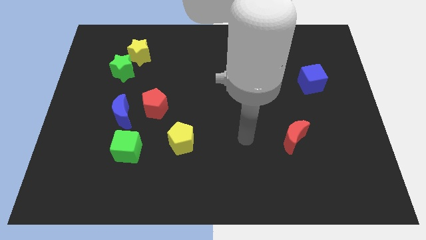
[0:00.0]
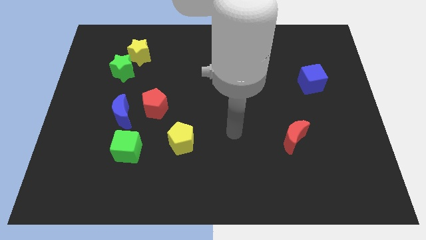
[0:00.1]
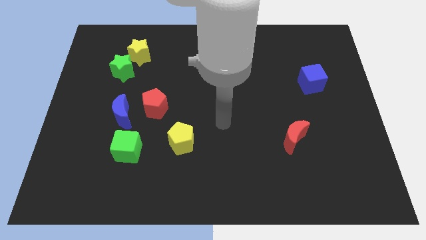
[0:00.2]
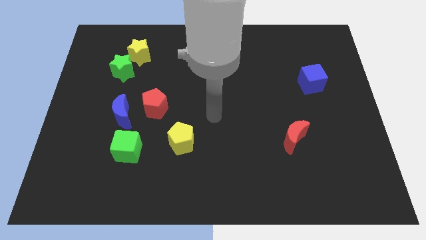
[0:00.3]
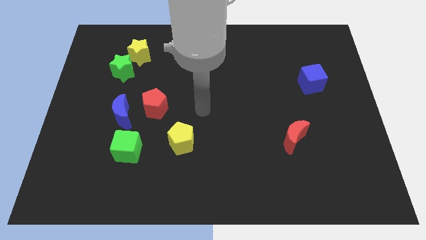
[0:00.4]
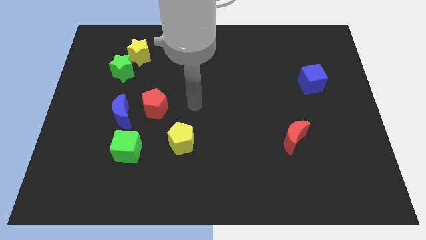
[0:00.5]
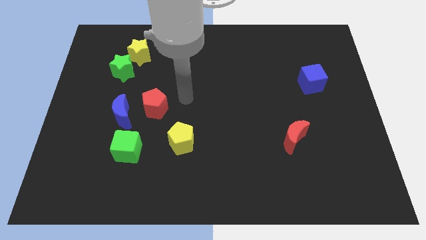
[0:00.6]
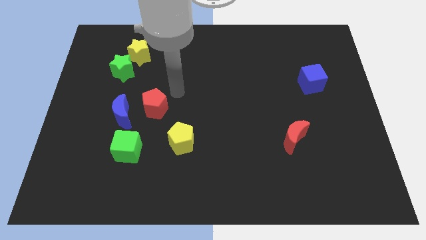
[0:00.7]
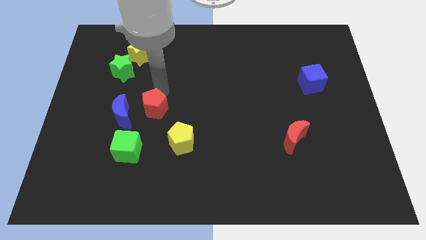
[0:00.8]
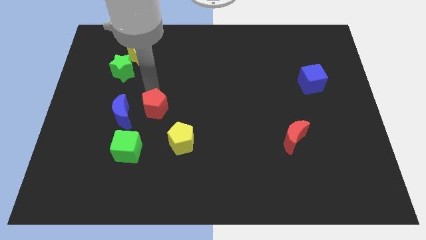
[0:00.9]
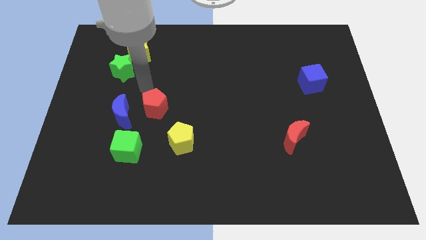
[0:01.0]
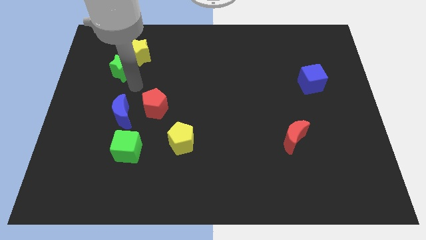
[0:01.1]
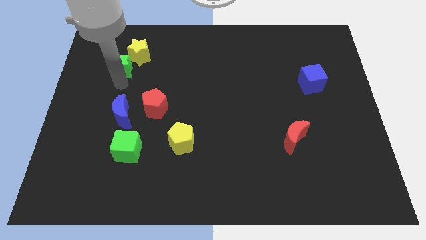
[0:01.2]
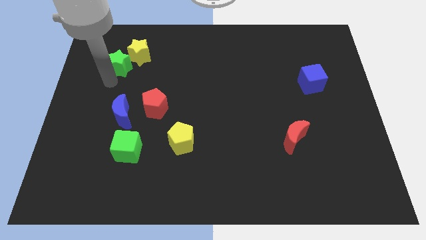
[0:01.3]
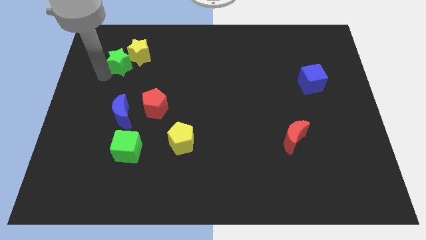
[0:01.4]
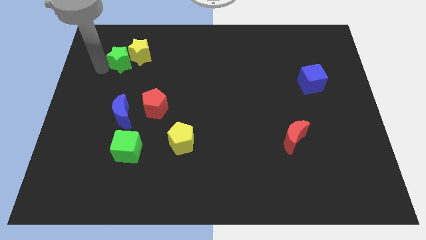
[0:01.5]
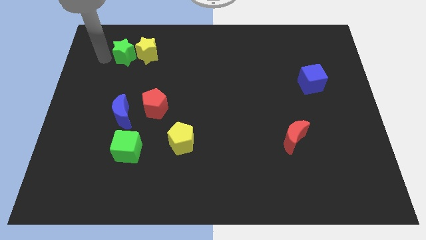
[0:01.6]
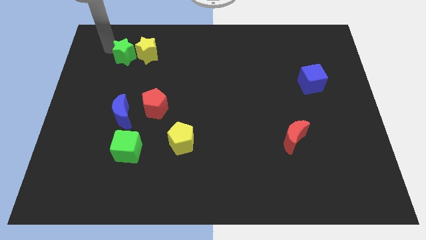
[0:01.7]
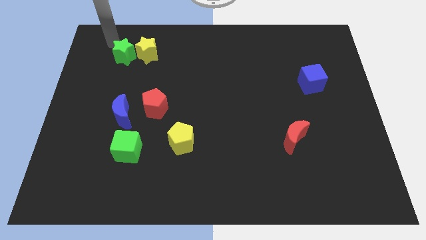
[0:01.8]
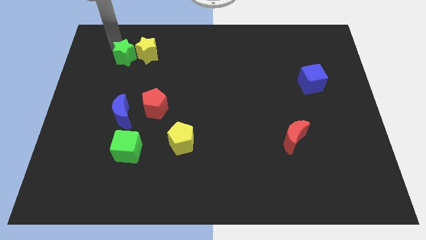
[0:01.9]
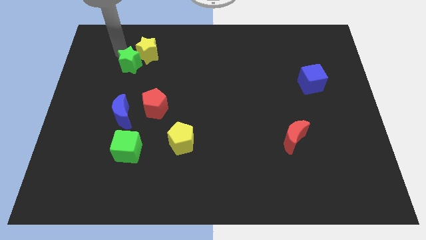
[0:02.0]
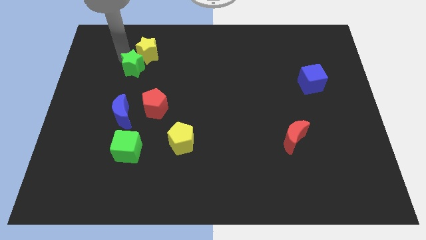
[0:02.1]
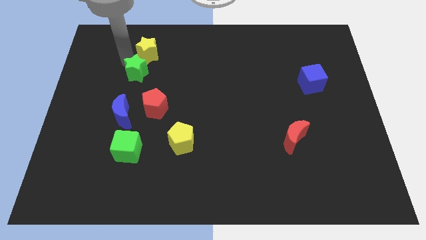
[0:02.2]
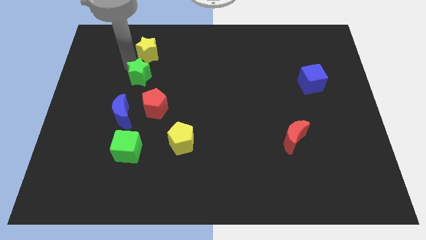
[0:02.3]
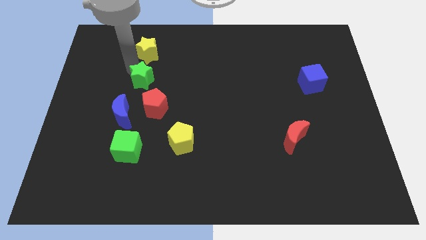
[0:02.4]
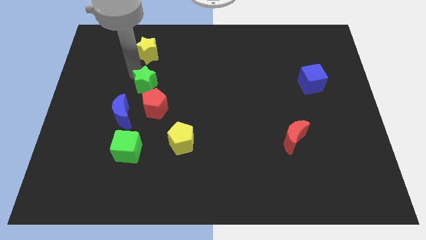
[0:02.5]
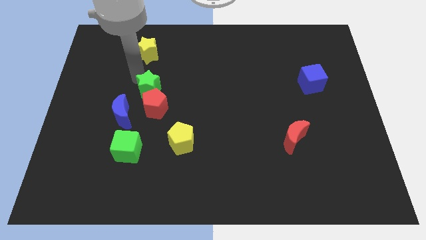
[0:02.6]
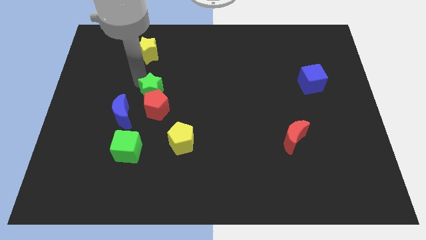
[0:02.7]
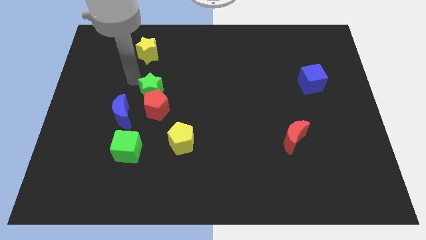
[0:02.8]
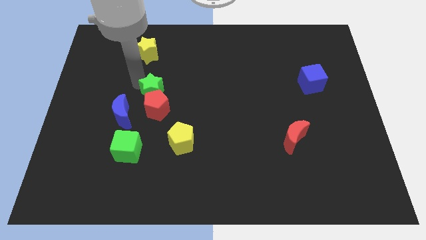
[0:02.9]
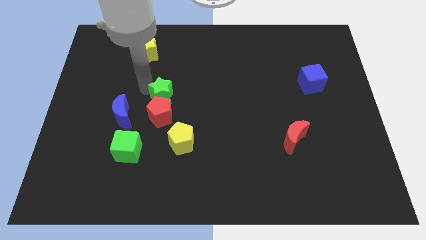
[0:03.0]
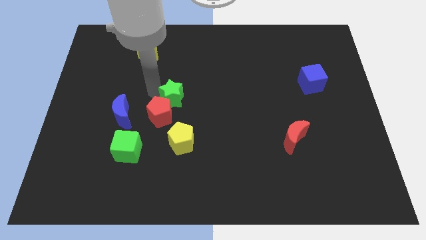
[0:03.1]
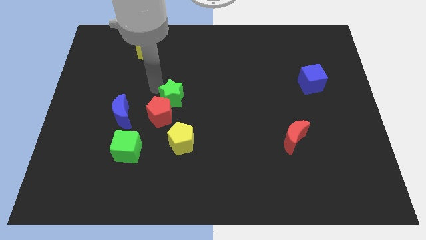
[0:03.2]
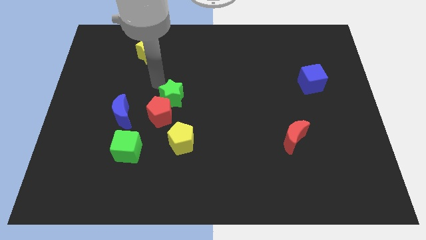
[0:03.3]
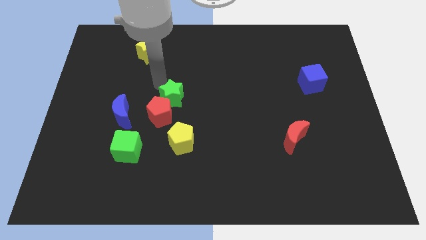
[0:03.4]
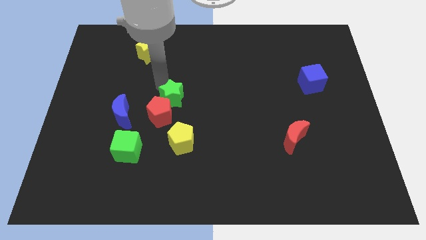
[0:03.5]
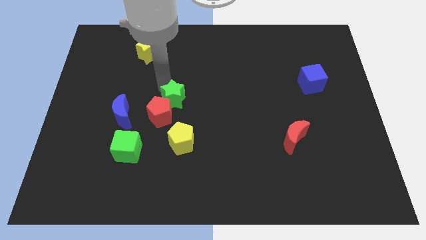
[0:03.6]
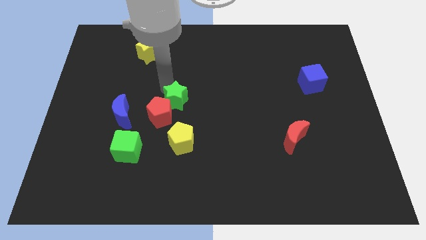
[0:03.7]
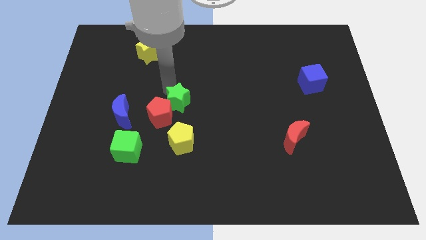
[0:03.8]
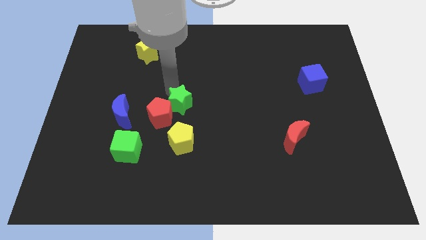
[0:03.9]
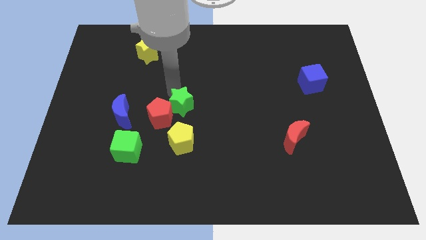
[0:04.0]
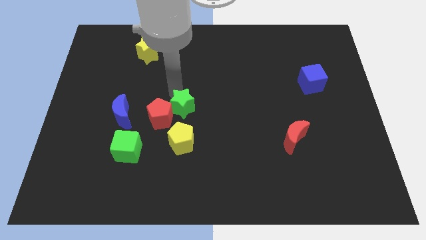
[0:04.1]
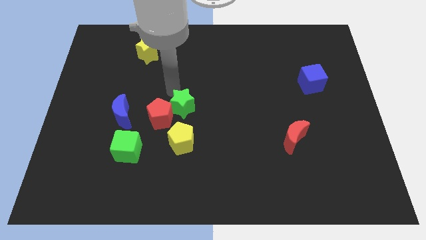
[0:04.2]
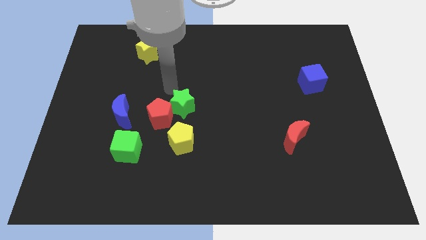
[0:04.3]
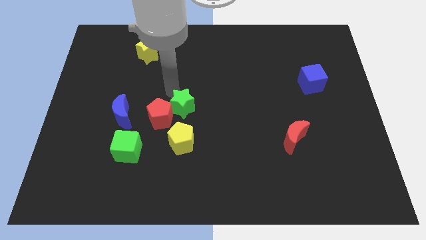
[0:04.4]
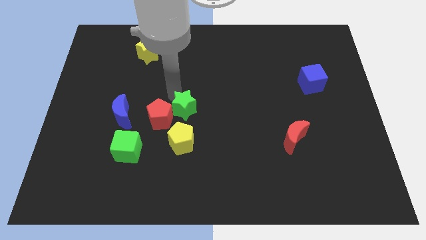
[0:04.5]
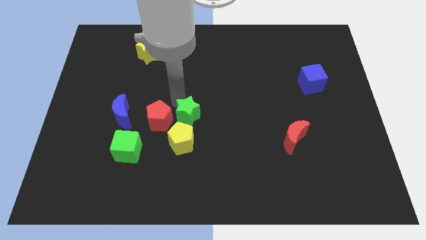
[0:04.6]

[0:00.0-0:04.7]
slide the green star downwards and to the right diagonally

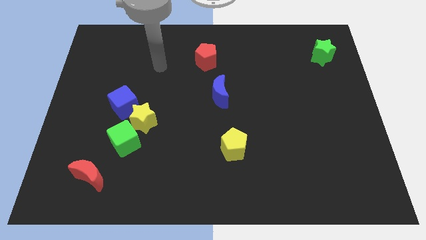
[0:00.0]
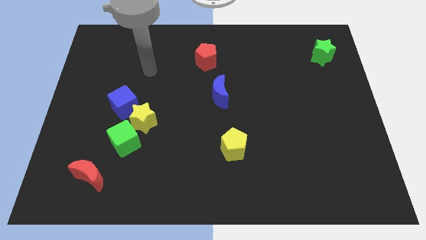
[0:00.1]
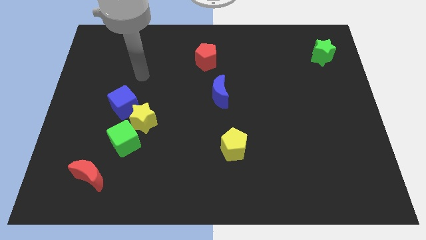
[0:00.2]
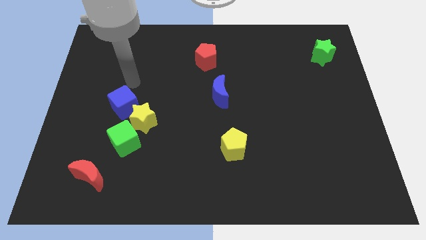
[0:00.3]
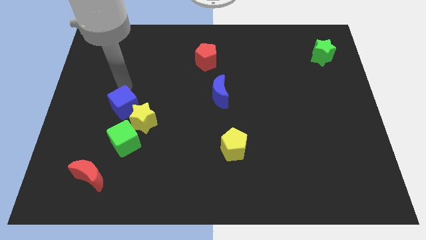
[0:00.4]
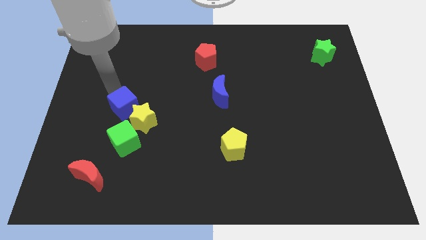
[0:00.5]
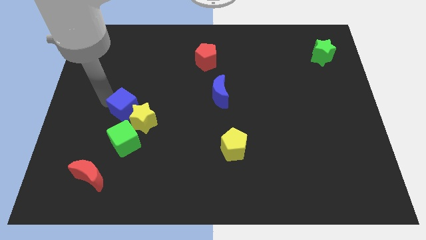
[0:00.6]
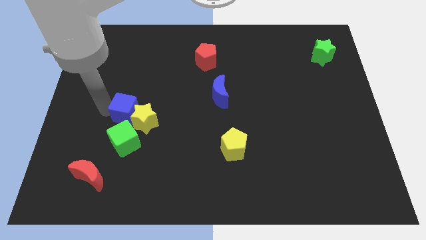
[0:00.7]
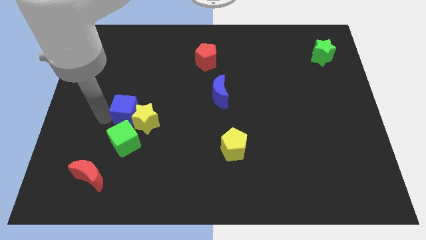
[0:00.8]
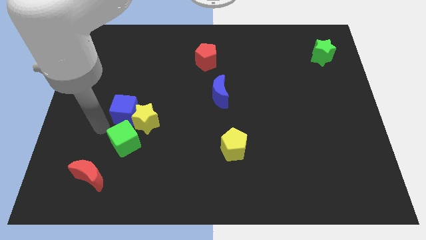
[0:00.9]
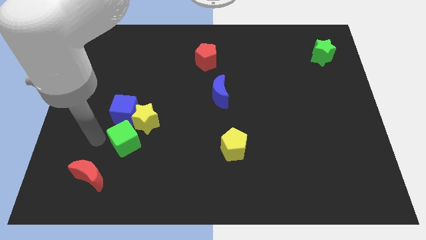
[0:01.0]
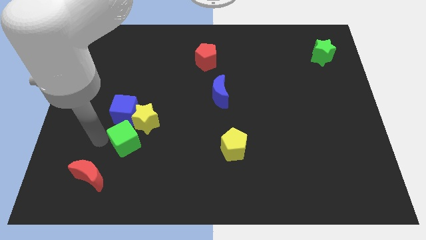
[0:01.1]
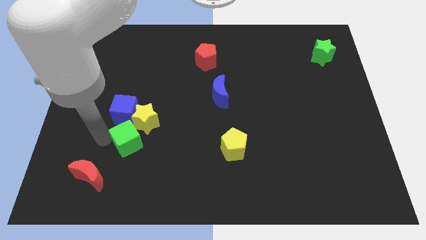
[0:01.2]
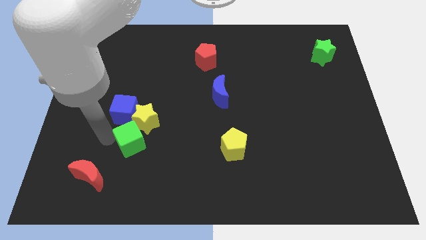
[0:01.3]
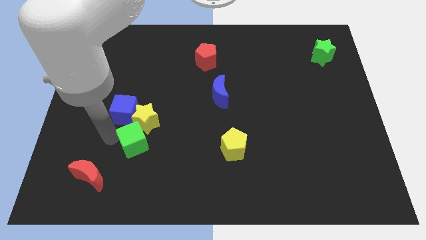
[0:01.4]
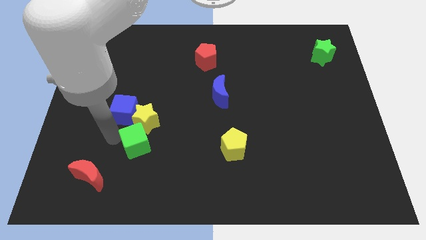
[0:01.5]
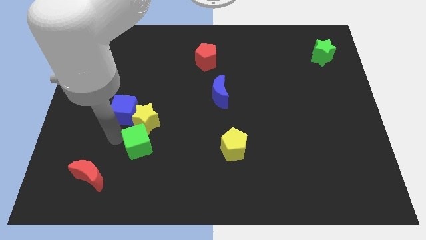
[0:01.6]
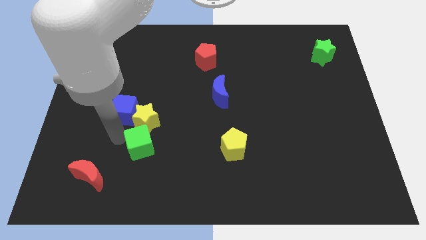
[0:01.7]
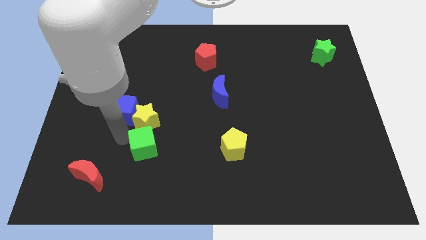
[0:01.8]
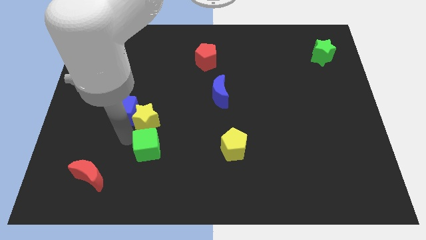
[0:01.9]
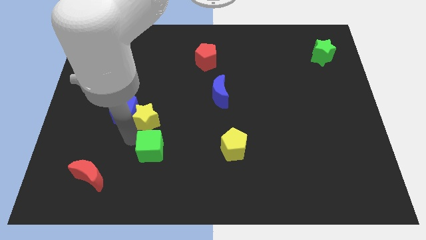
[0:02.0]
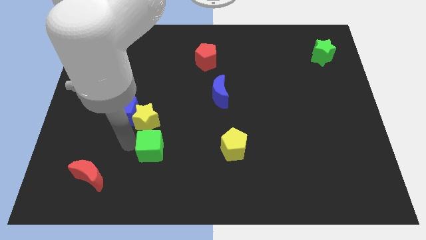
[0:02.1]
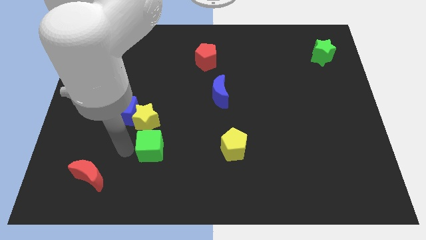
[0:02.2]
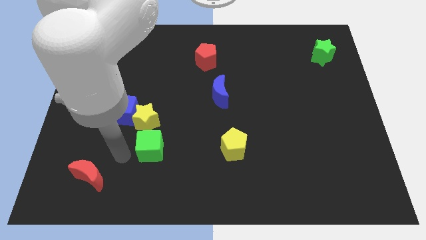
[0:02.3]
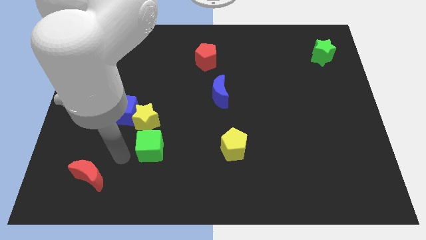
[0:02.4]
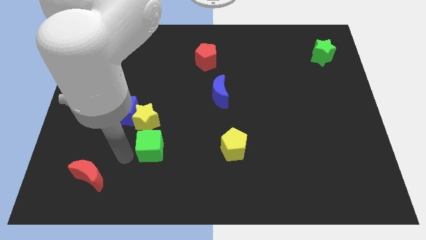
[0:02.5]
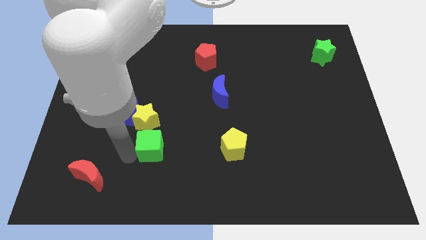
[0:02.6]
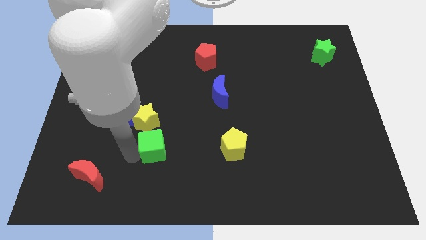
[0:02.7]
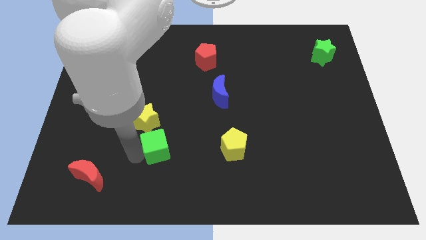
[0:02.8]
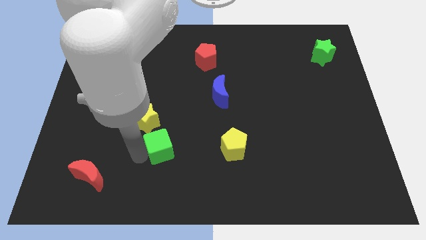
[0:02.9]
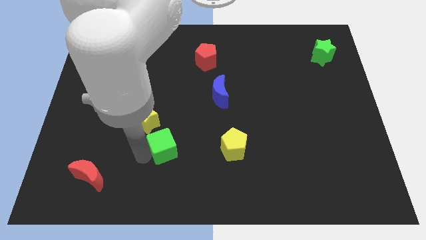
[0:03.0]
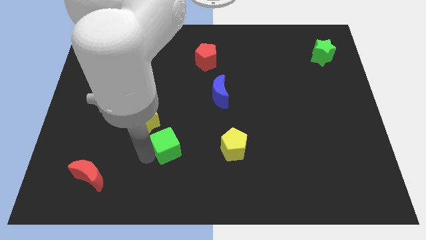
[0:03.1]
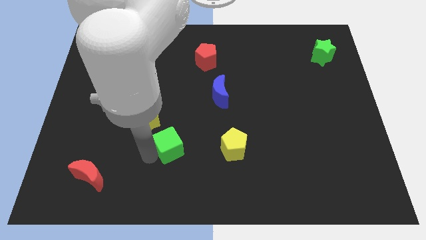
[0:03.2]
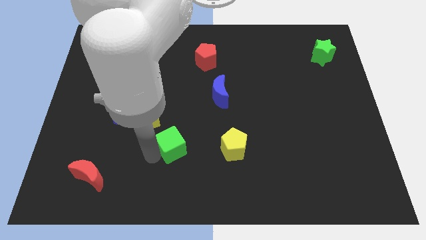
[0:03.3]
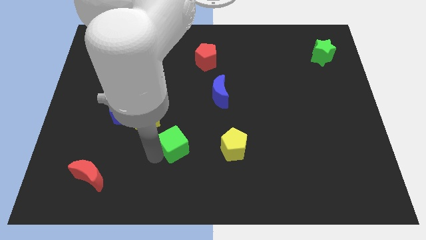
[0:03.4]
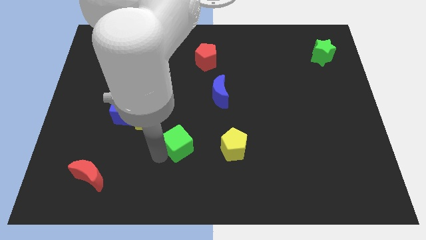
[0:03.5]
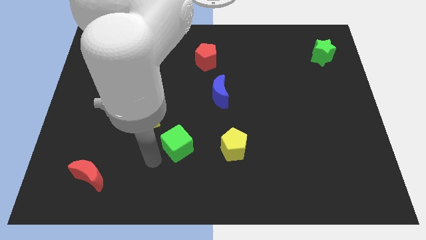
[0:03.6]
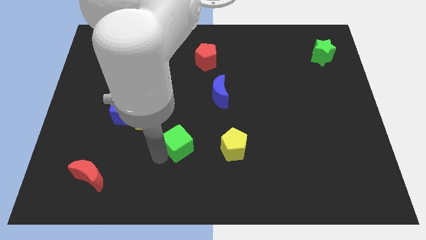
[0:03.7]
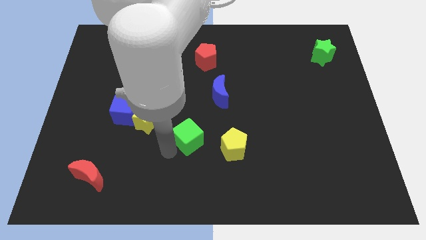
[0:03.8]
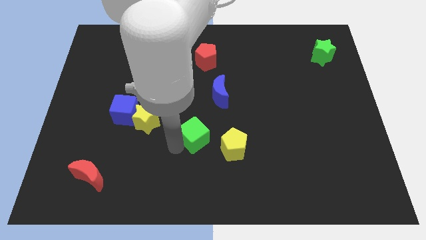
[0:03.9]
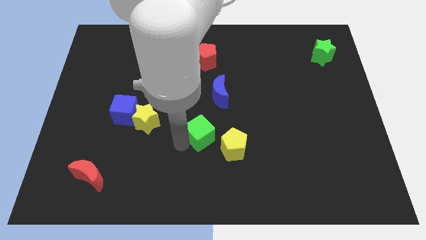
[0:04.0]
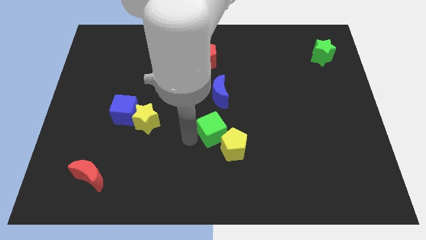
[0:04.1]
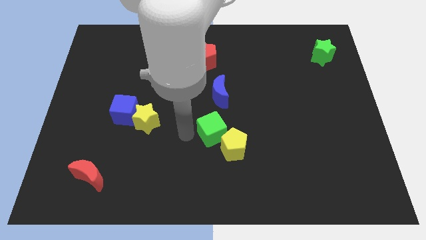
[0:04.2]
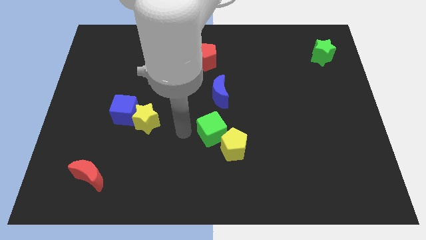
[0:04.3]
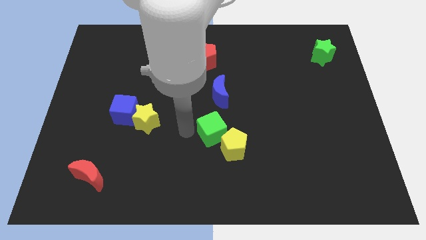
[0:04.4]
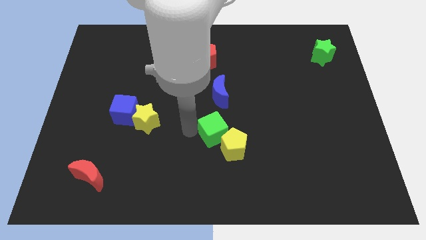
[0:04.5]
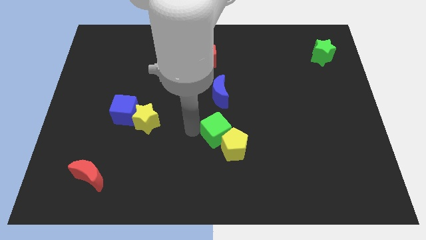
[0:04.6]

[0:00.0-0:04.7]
move the green cube to the right
